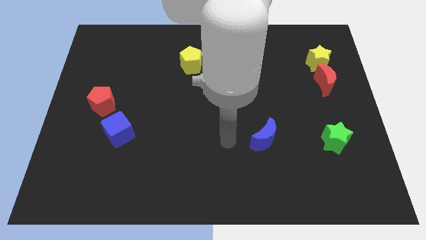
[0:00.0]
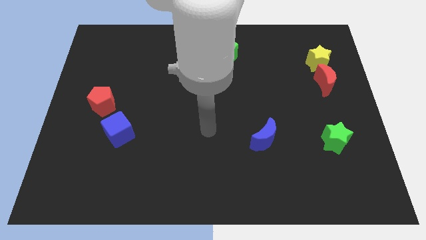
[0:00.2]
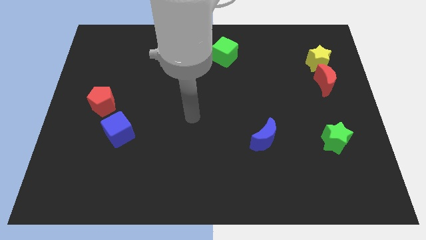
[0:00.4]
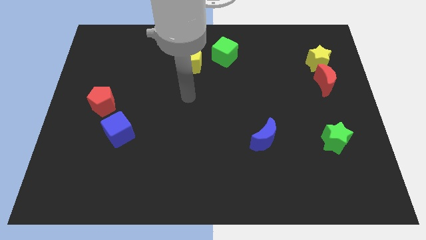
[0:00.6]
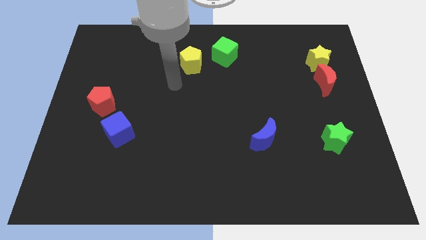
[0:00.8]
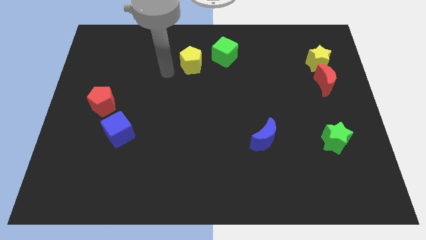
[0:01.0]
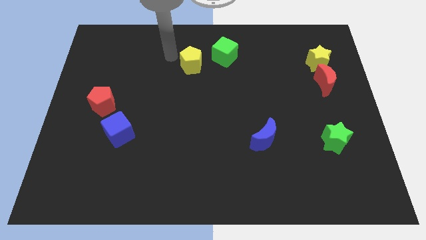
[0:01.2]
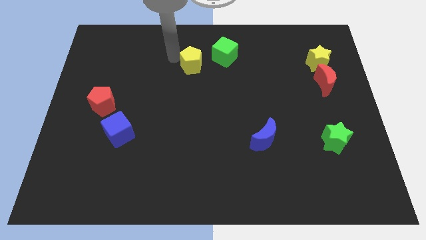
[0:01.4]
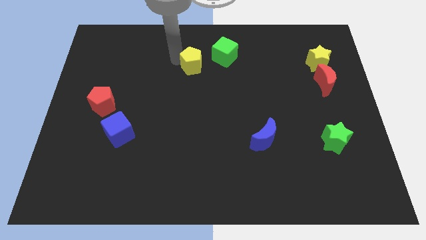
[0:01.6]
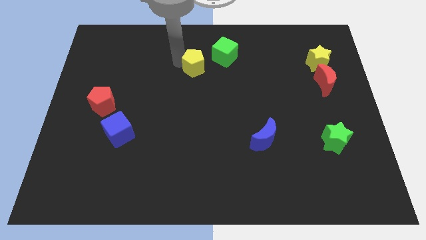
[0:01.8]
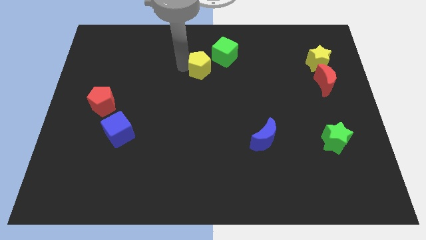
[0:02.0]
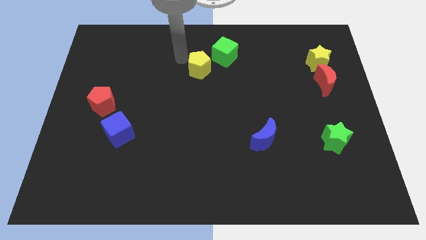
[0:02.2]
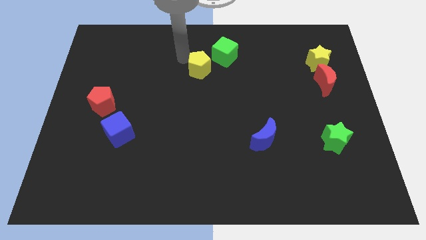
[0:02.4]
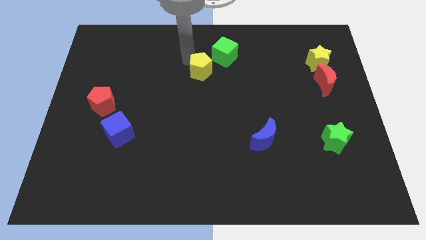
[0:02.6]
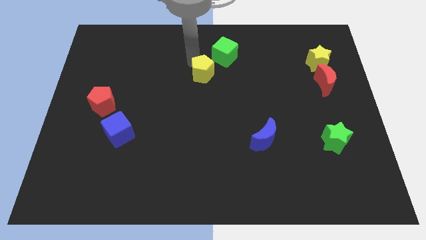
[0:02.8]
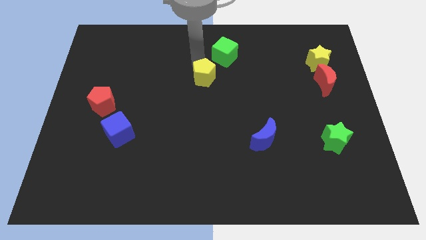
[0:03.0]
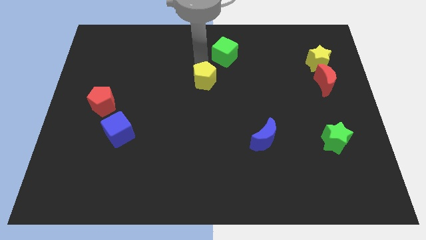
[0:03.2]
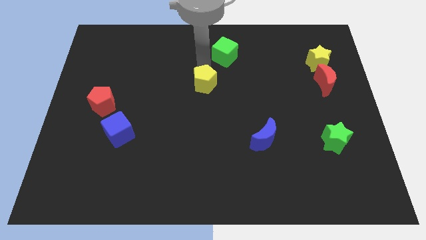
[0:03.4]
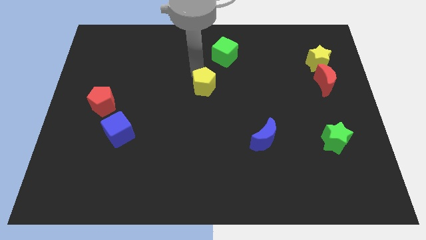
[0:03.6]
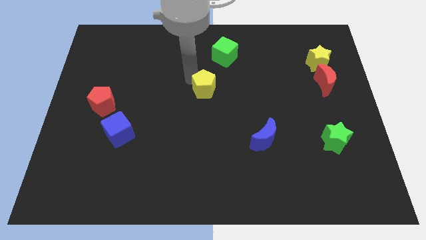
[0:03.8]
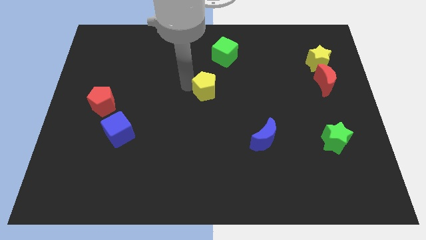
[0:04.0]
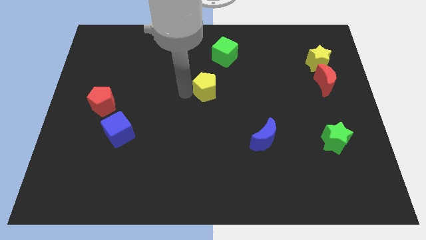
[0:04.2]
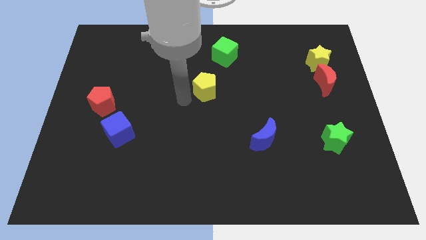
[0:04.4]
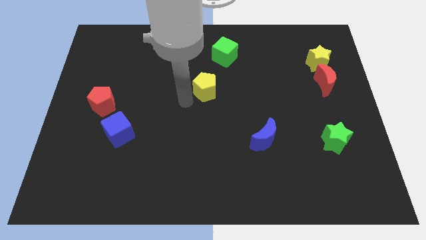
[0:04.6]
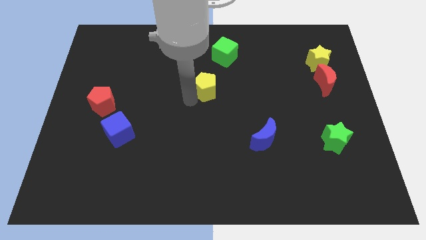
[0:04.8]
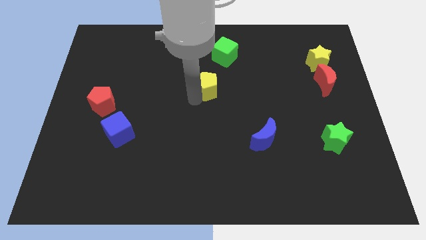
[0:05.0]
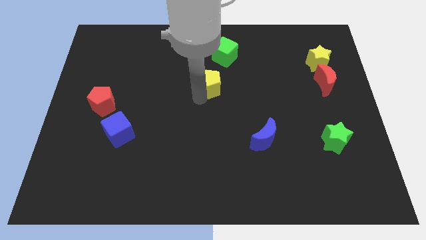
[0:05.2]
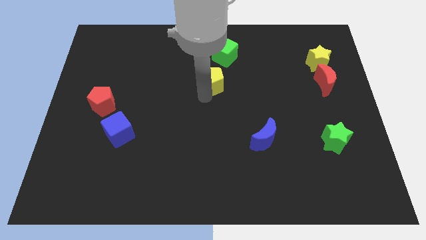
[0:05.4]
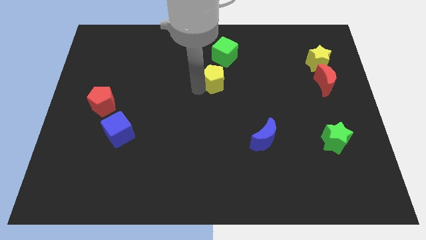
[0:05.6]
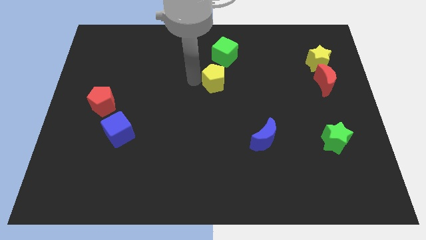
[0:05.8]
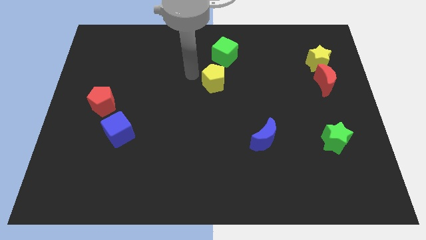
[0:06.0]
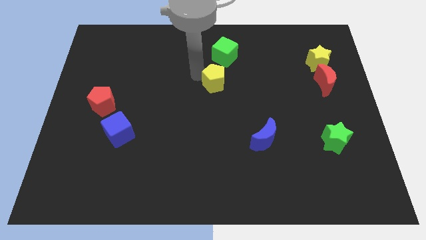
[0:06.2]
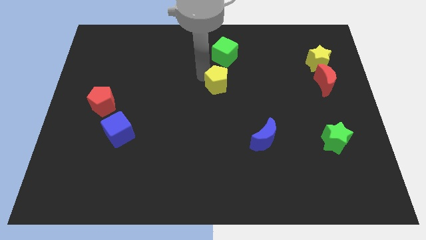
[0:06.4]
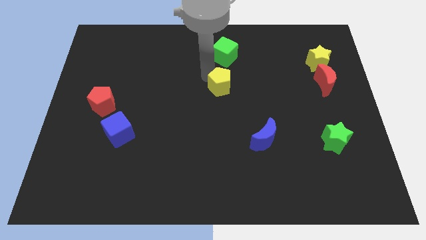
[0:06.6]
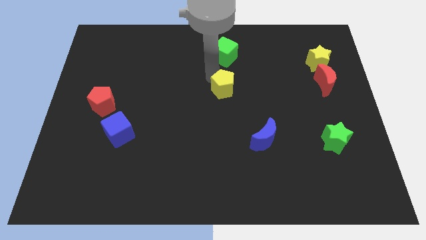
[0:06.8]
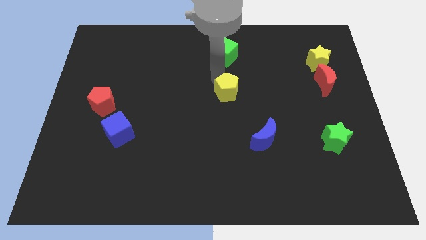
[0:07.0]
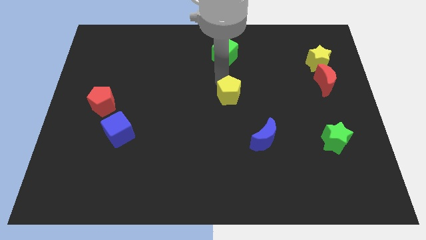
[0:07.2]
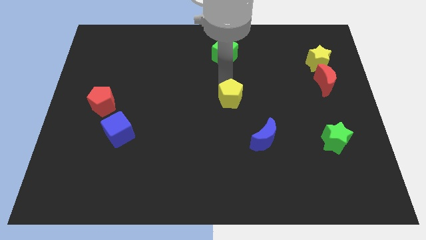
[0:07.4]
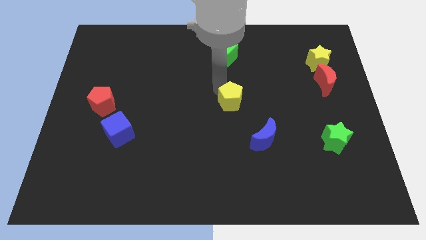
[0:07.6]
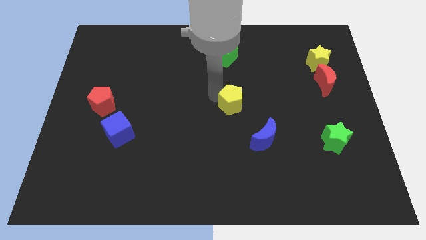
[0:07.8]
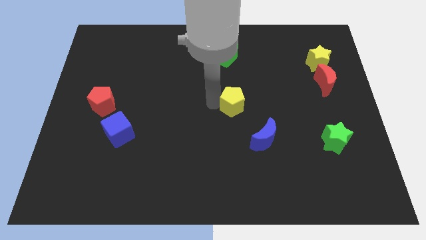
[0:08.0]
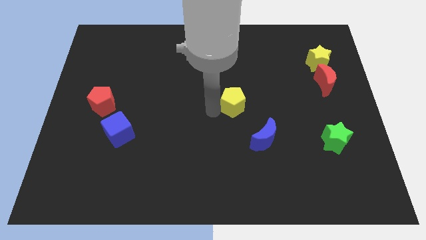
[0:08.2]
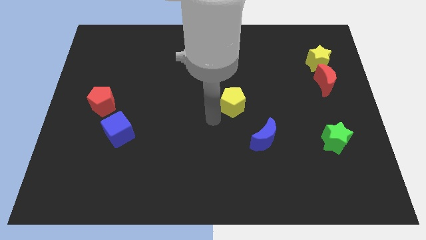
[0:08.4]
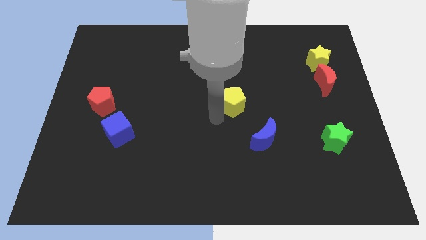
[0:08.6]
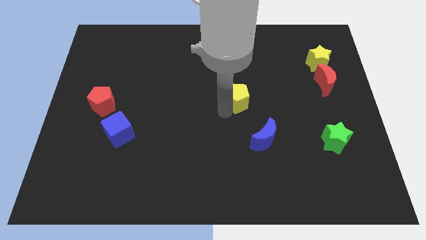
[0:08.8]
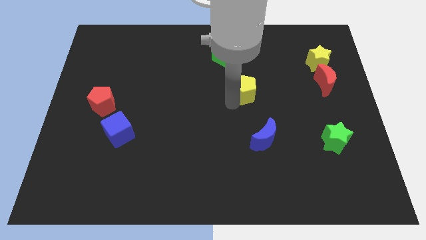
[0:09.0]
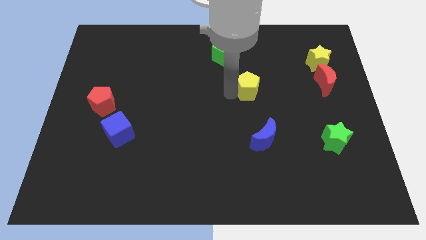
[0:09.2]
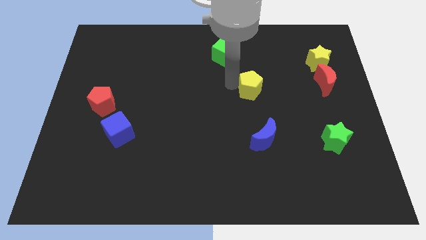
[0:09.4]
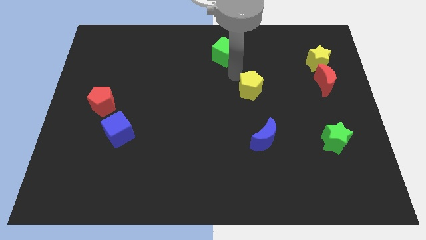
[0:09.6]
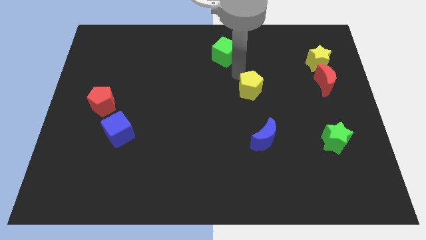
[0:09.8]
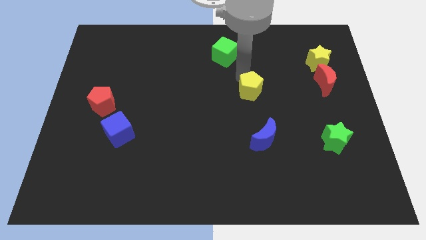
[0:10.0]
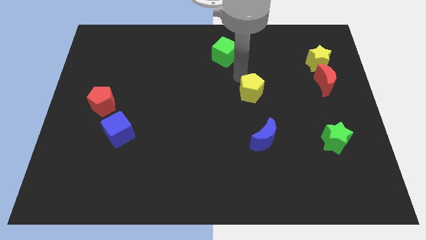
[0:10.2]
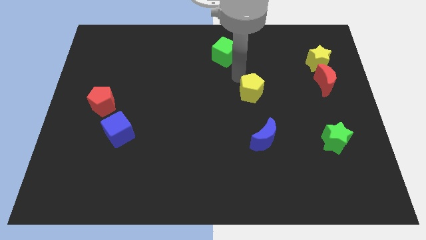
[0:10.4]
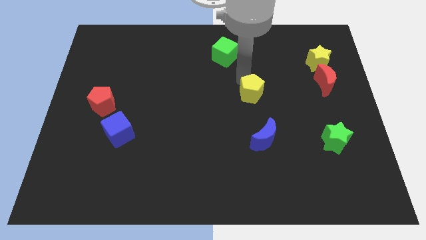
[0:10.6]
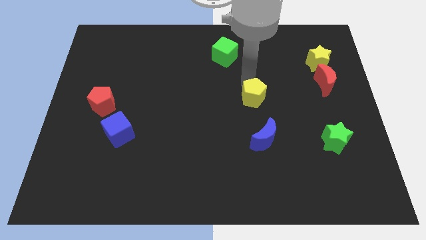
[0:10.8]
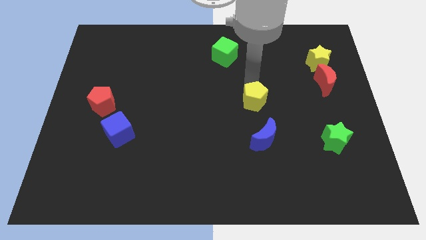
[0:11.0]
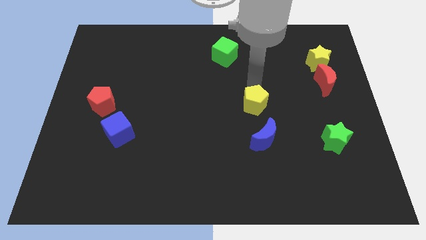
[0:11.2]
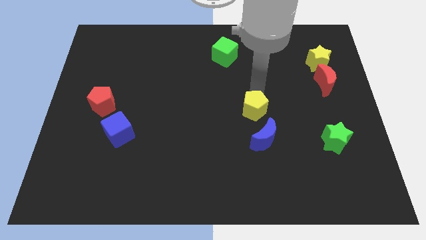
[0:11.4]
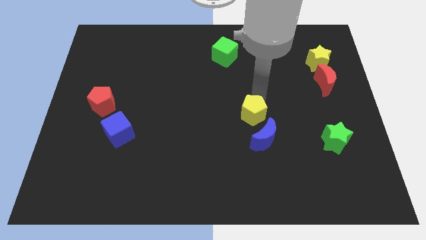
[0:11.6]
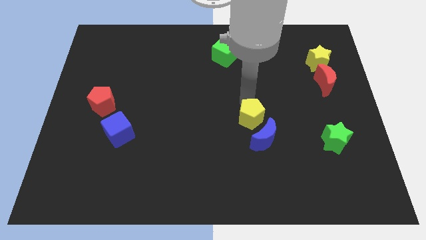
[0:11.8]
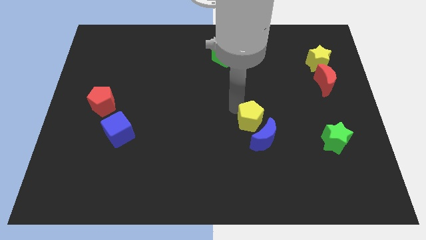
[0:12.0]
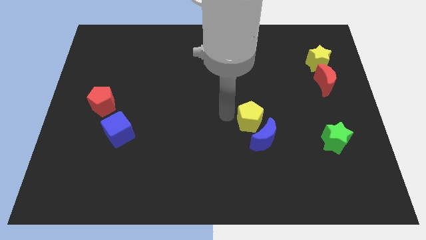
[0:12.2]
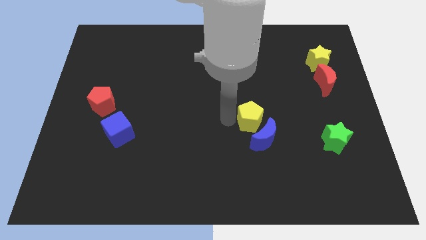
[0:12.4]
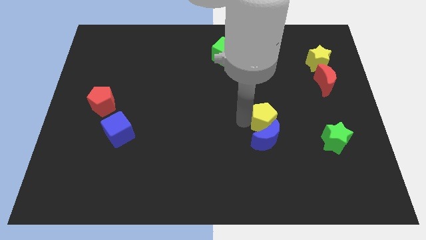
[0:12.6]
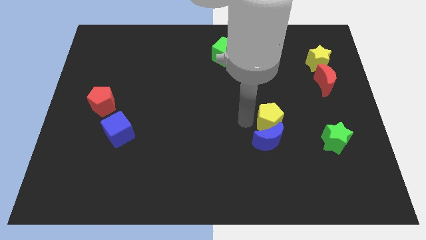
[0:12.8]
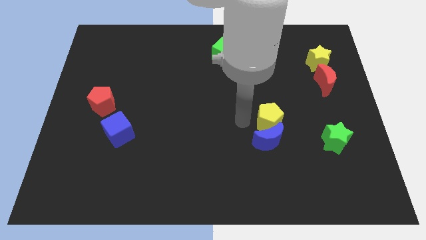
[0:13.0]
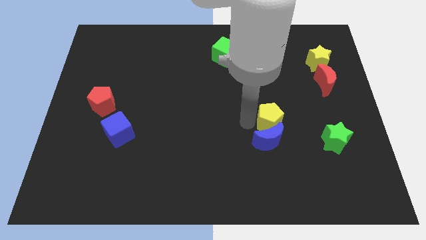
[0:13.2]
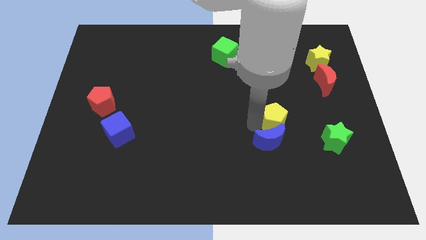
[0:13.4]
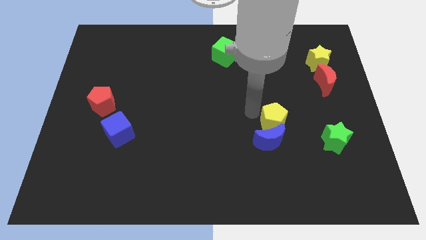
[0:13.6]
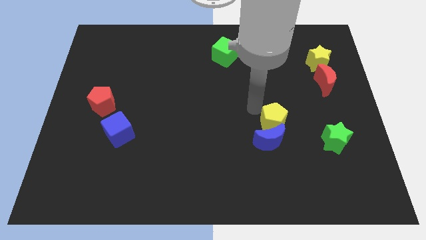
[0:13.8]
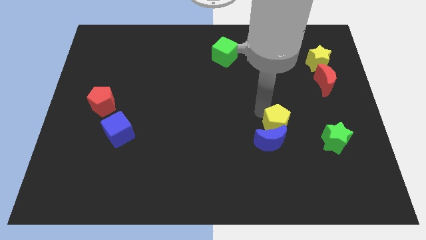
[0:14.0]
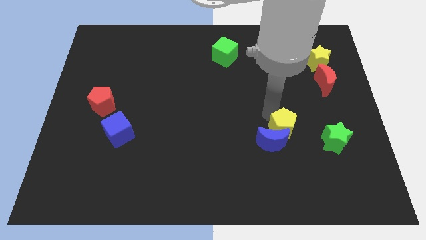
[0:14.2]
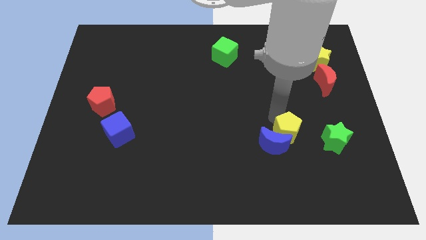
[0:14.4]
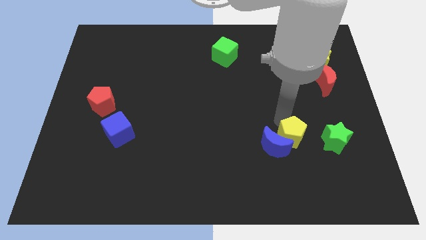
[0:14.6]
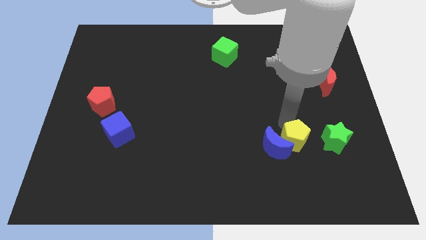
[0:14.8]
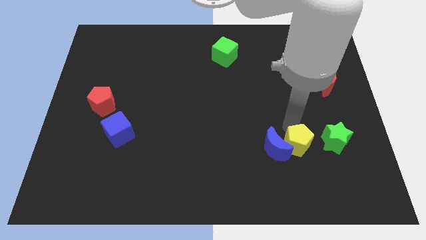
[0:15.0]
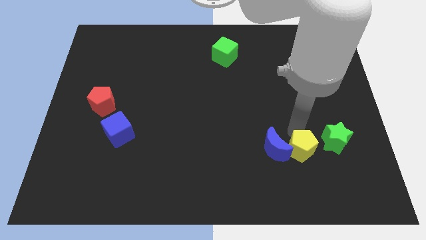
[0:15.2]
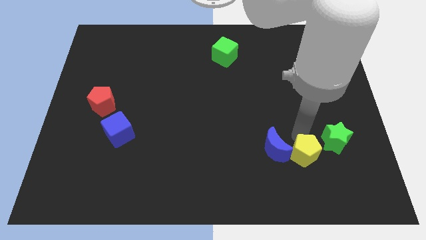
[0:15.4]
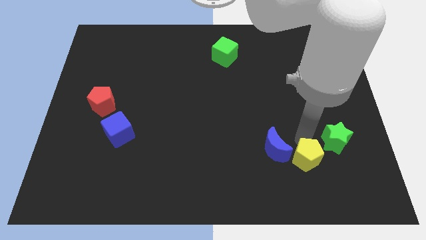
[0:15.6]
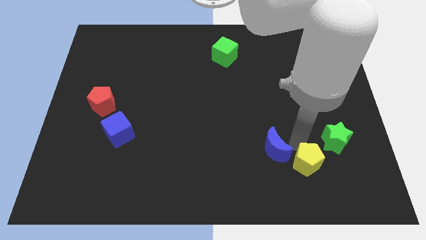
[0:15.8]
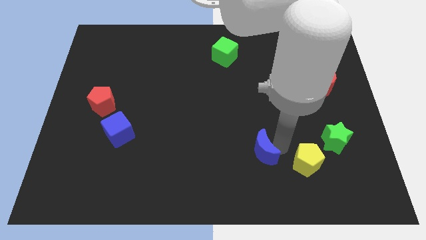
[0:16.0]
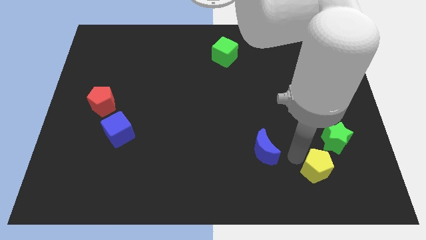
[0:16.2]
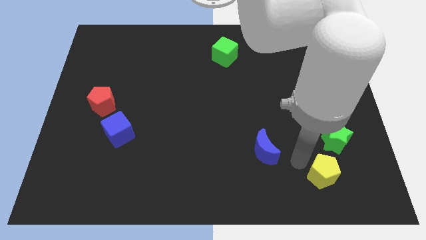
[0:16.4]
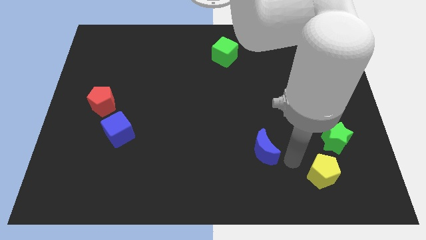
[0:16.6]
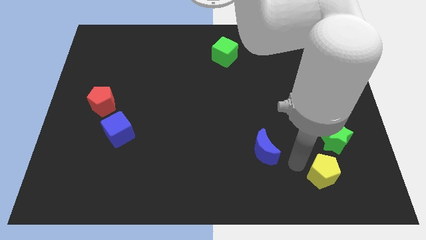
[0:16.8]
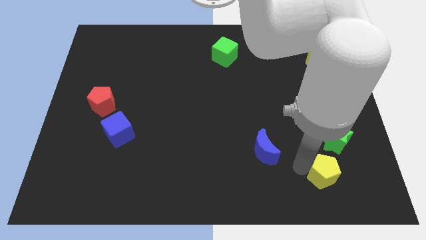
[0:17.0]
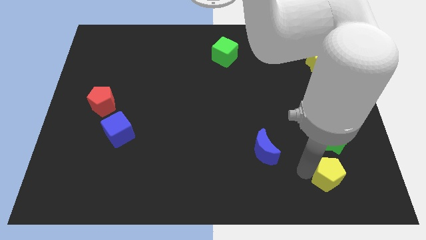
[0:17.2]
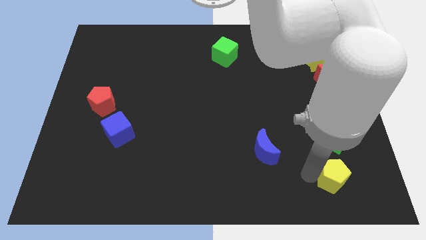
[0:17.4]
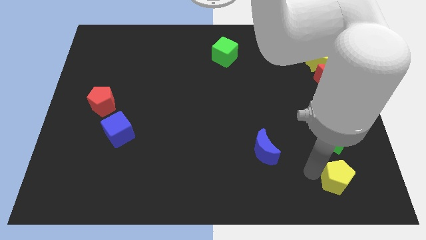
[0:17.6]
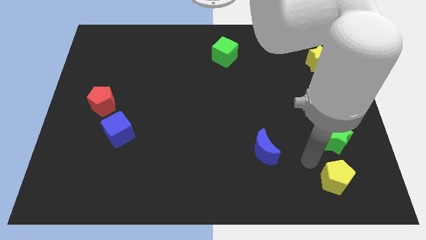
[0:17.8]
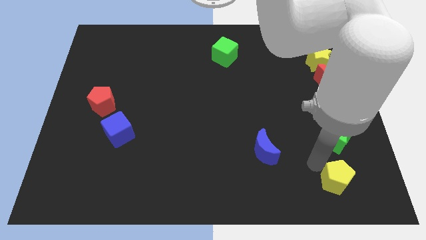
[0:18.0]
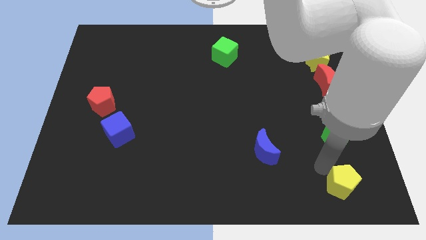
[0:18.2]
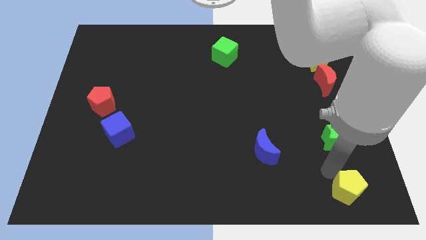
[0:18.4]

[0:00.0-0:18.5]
put the yellow pentagon to the bottom right corner
